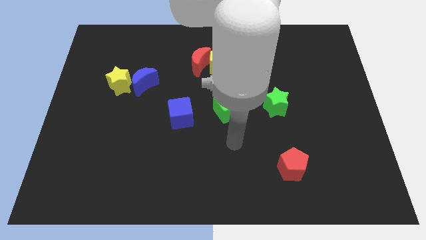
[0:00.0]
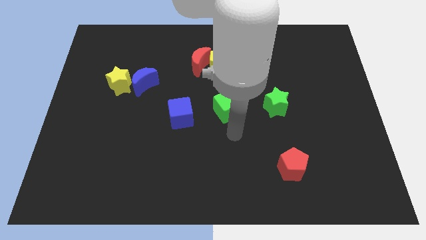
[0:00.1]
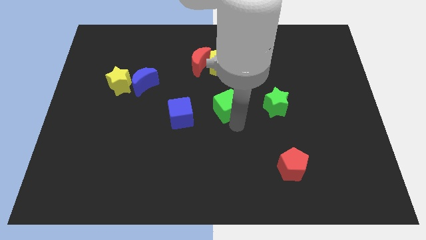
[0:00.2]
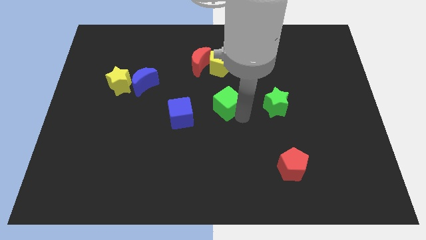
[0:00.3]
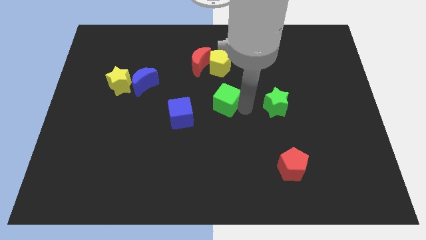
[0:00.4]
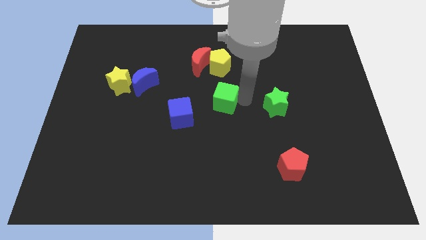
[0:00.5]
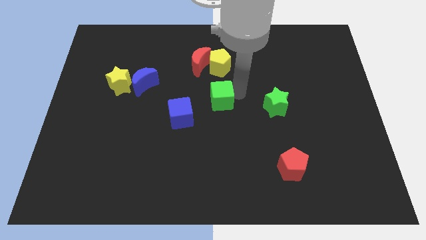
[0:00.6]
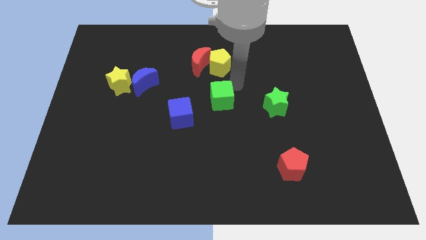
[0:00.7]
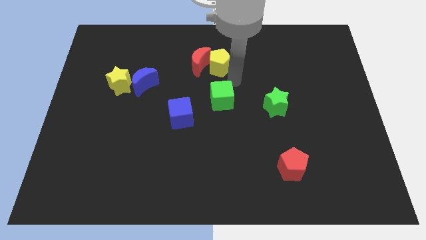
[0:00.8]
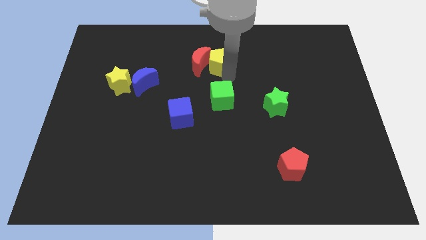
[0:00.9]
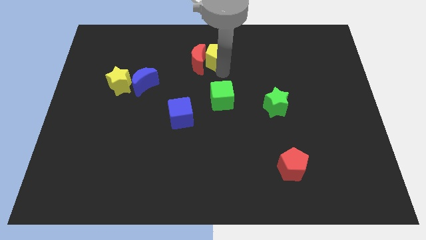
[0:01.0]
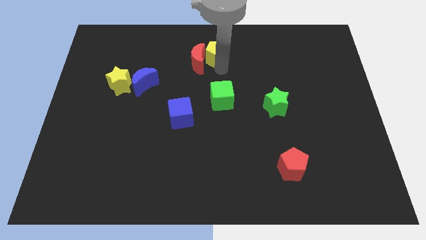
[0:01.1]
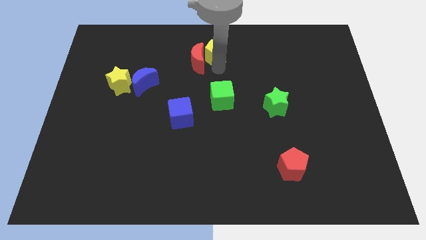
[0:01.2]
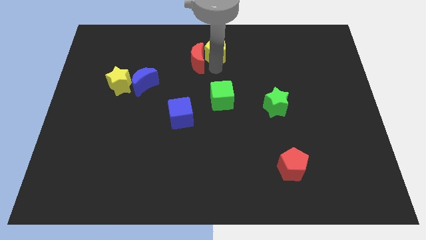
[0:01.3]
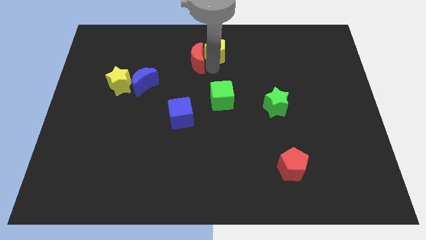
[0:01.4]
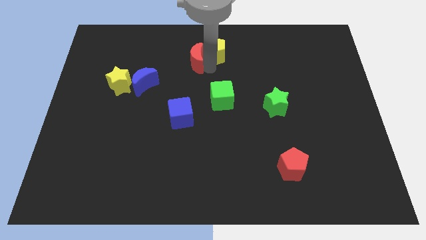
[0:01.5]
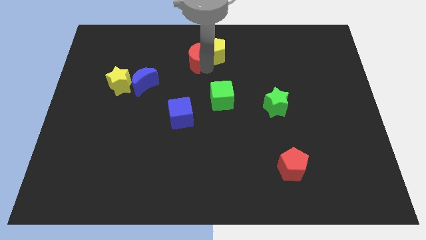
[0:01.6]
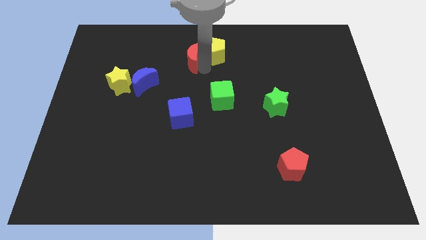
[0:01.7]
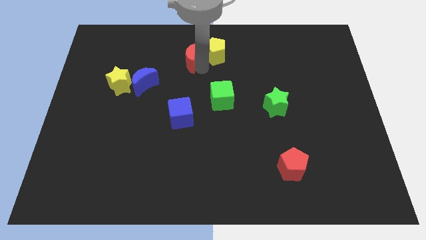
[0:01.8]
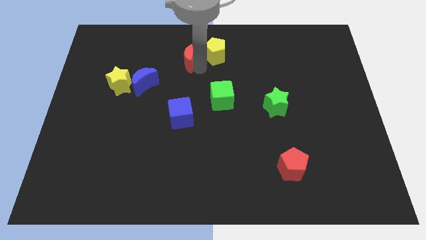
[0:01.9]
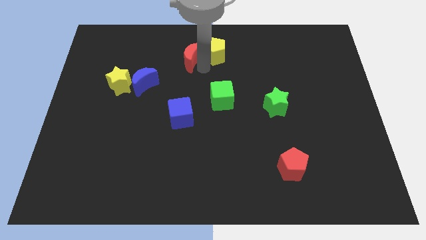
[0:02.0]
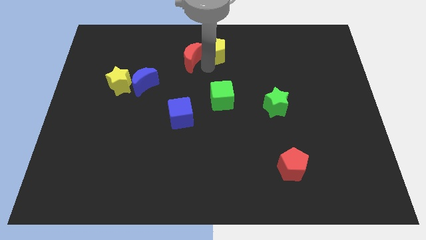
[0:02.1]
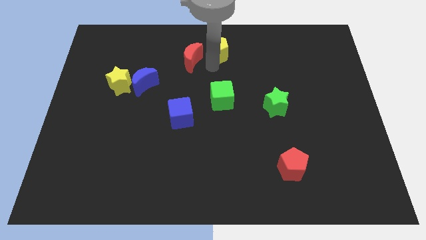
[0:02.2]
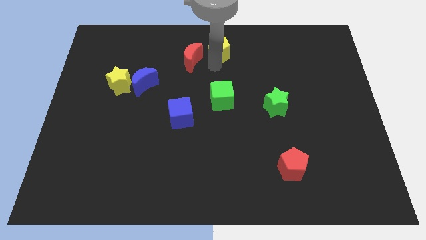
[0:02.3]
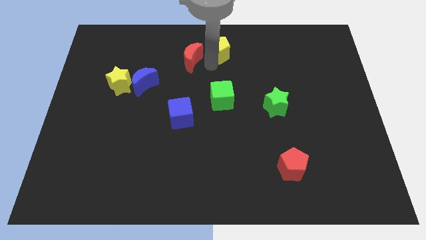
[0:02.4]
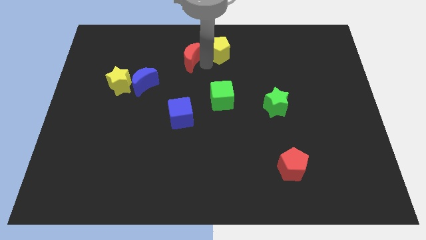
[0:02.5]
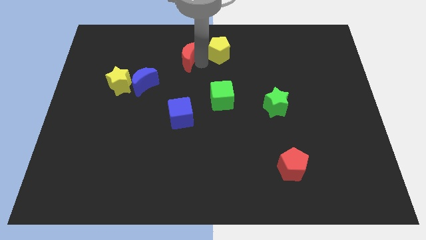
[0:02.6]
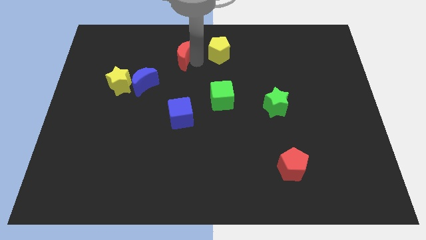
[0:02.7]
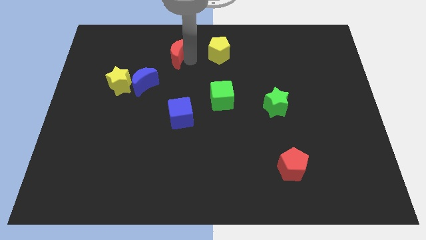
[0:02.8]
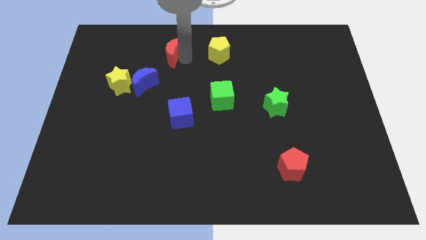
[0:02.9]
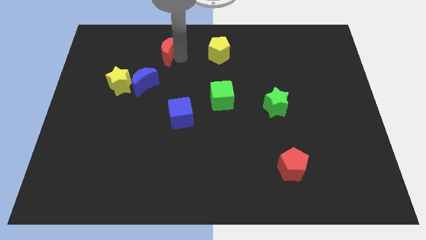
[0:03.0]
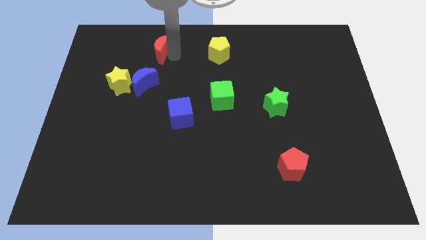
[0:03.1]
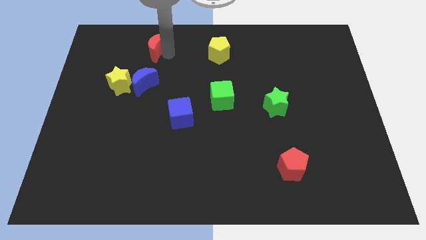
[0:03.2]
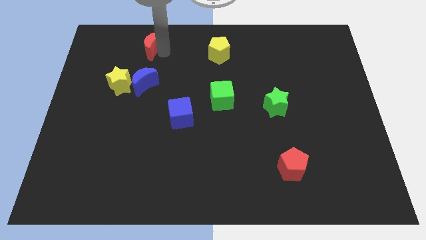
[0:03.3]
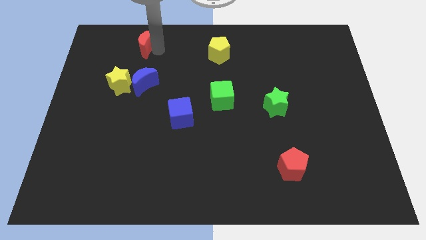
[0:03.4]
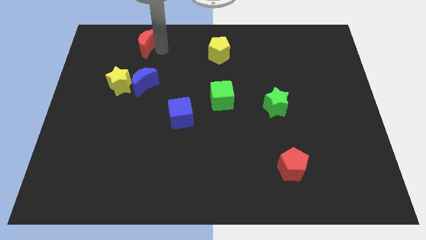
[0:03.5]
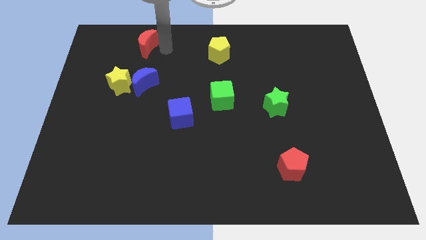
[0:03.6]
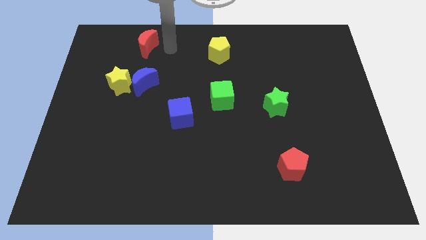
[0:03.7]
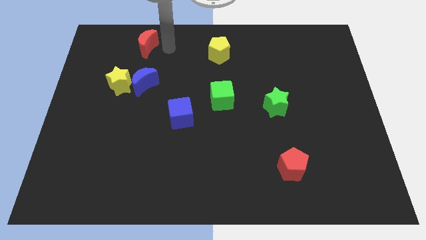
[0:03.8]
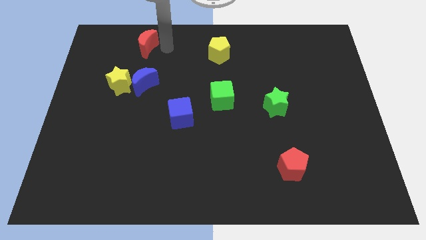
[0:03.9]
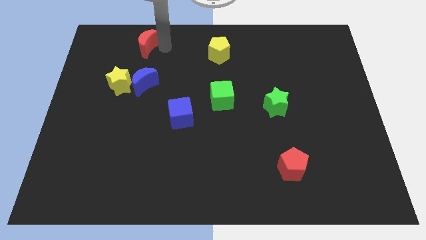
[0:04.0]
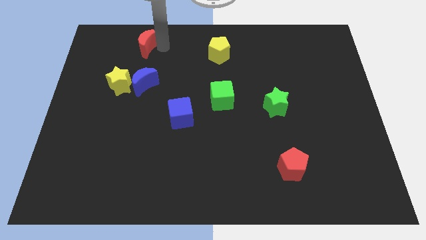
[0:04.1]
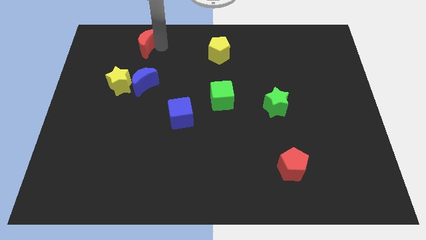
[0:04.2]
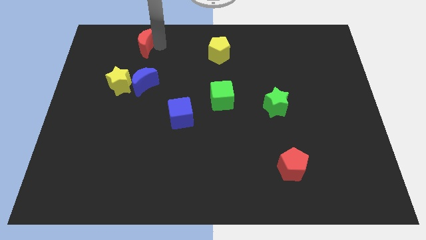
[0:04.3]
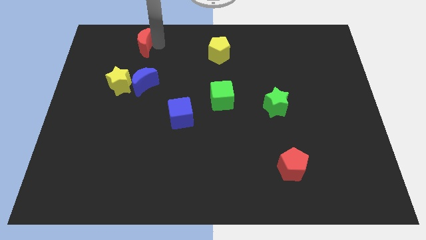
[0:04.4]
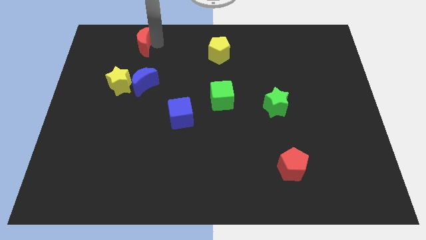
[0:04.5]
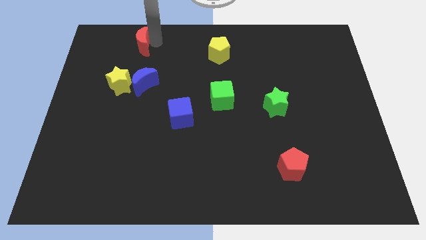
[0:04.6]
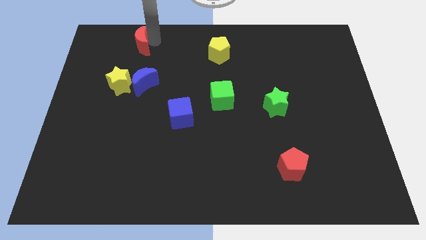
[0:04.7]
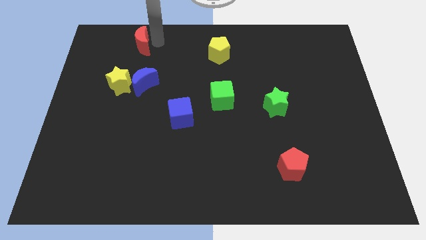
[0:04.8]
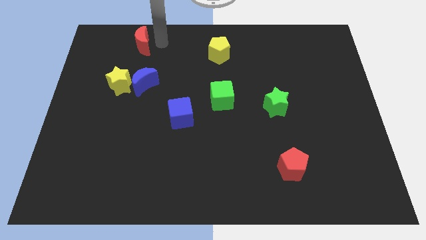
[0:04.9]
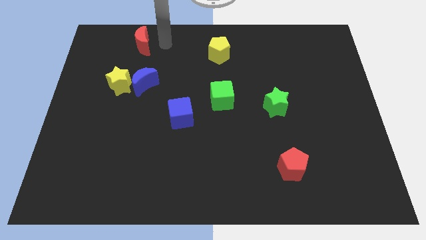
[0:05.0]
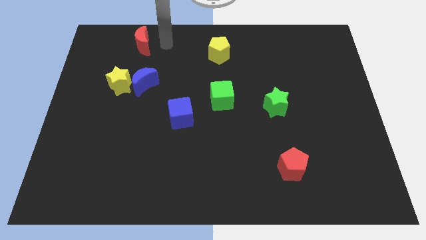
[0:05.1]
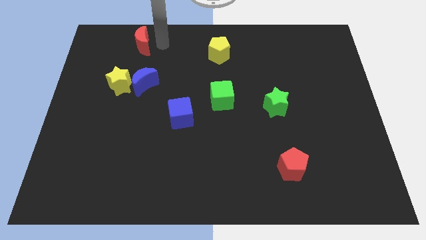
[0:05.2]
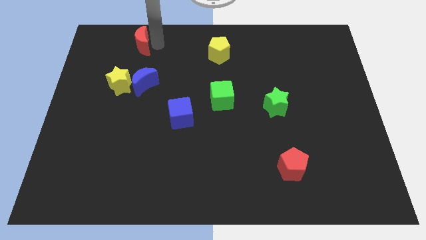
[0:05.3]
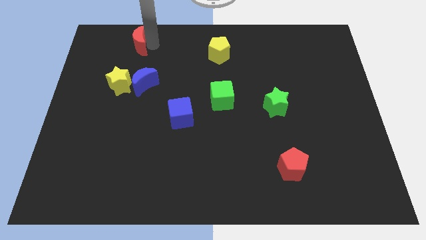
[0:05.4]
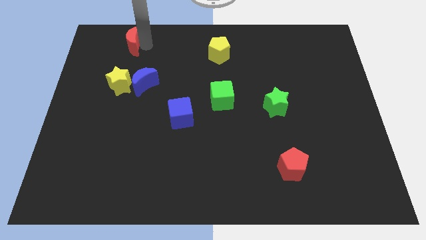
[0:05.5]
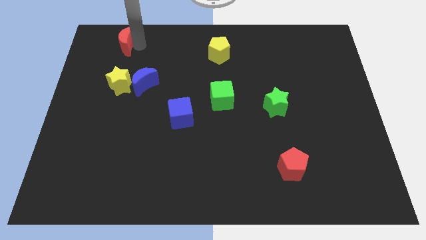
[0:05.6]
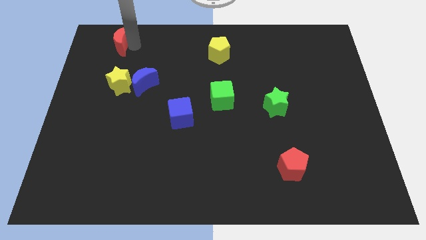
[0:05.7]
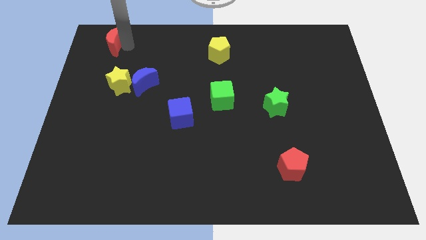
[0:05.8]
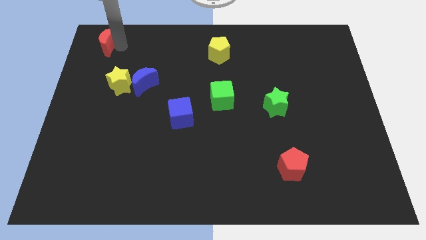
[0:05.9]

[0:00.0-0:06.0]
slide the red moon to the top left

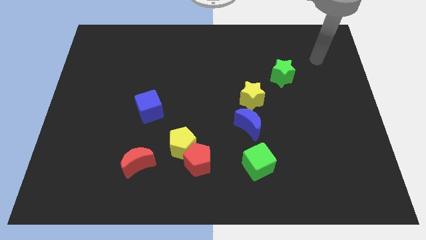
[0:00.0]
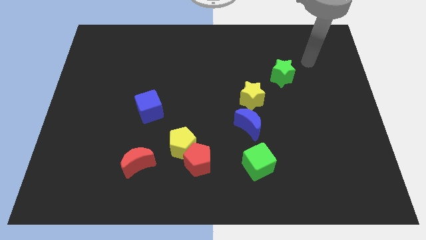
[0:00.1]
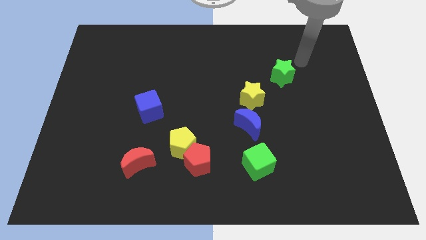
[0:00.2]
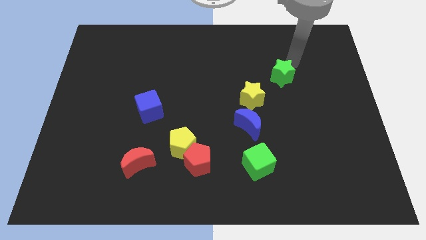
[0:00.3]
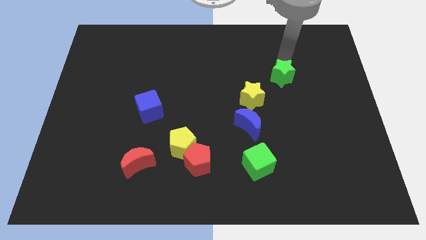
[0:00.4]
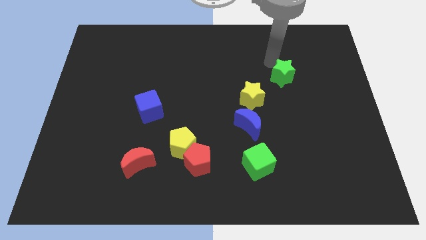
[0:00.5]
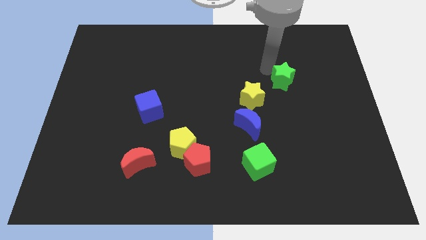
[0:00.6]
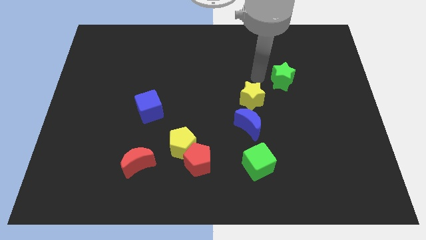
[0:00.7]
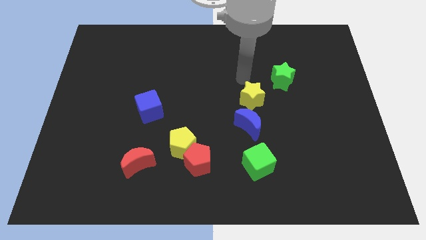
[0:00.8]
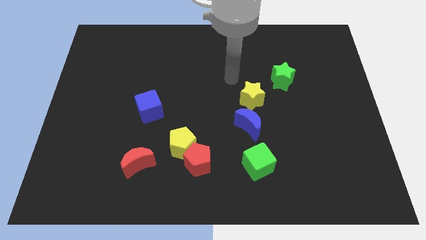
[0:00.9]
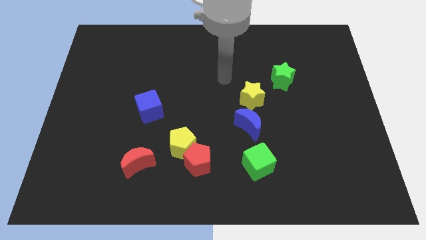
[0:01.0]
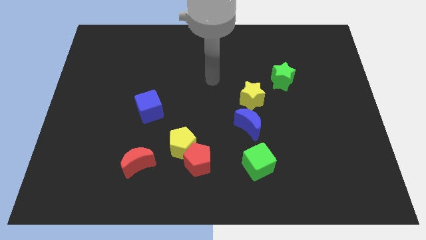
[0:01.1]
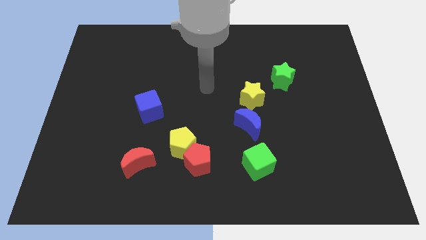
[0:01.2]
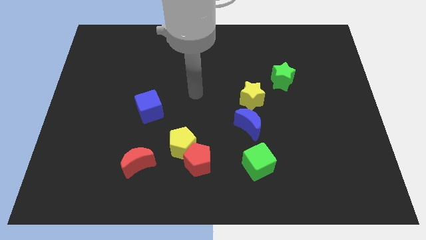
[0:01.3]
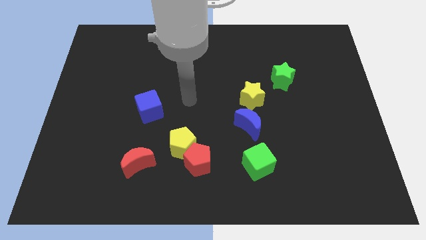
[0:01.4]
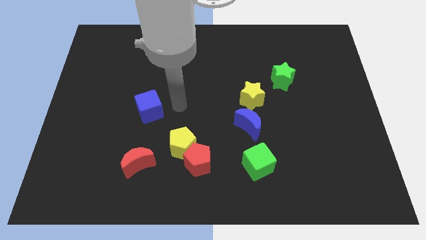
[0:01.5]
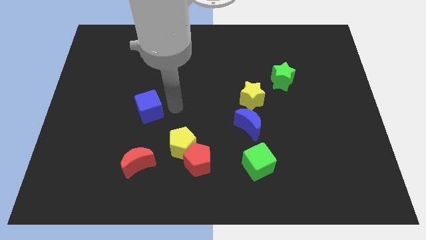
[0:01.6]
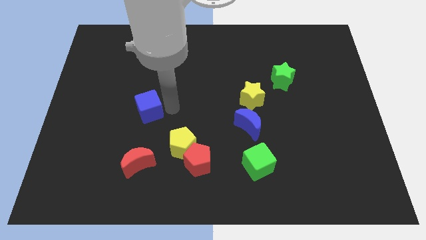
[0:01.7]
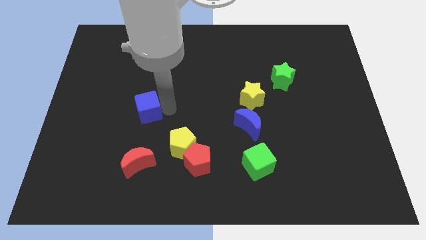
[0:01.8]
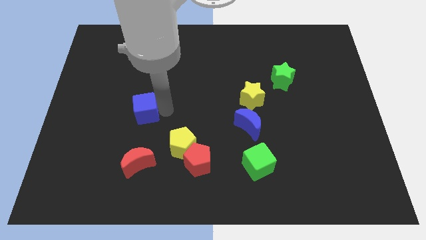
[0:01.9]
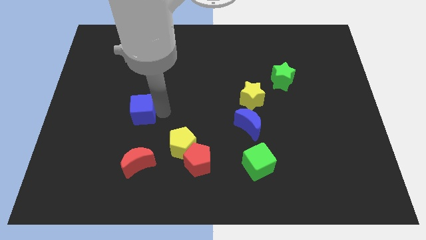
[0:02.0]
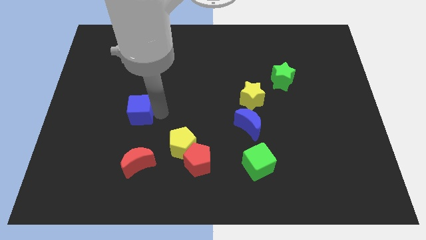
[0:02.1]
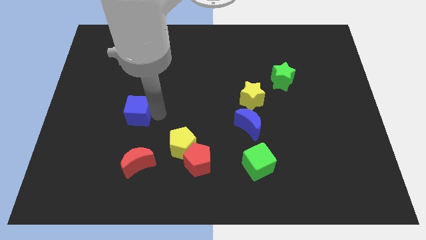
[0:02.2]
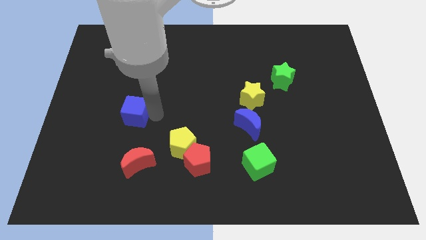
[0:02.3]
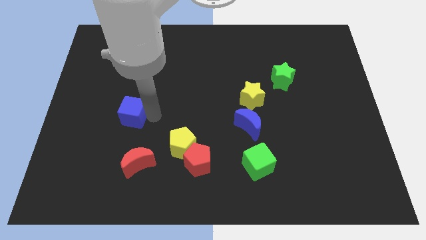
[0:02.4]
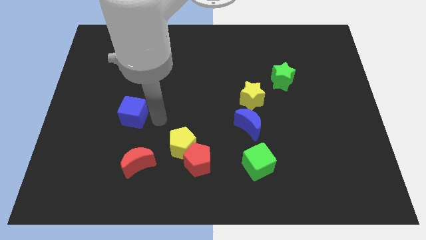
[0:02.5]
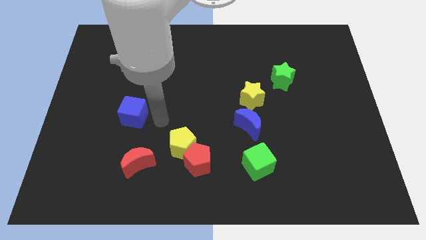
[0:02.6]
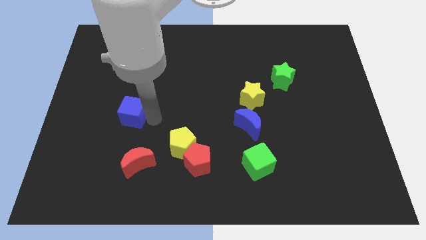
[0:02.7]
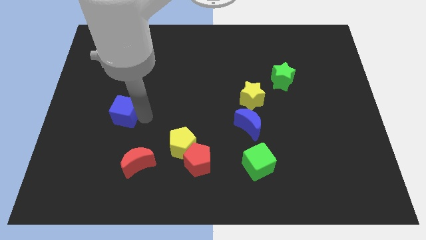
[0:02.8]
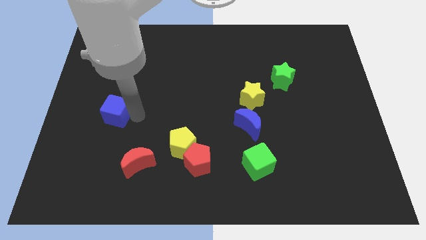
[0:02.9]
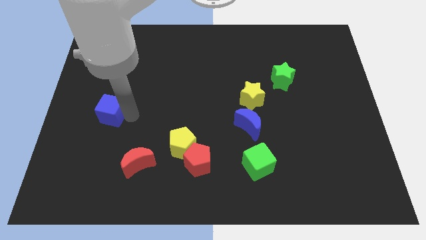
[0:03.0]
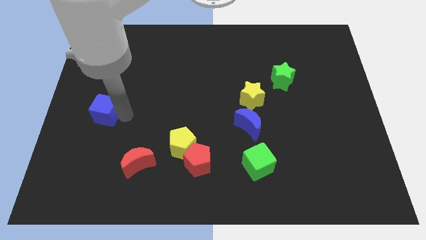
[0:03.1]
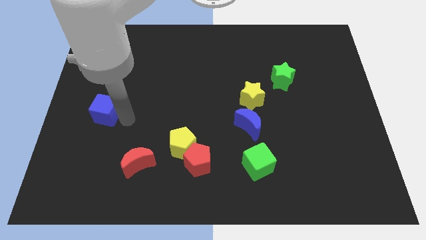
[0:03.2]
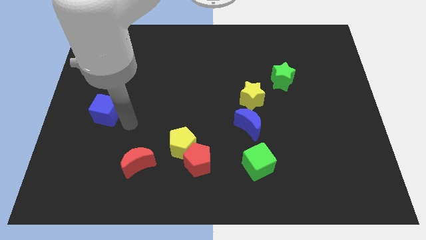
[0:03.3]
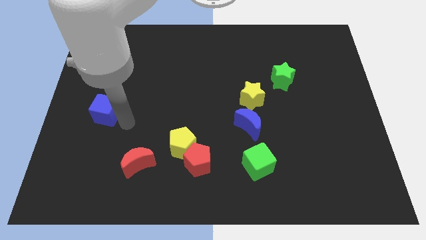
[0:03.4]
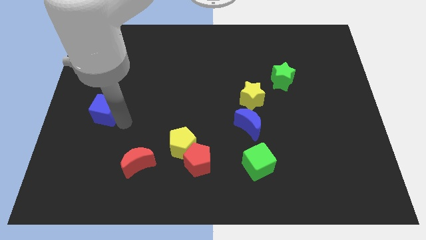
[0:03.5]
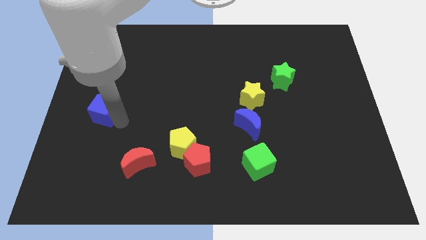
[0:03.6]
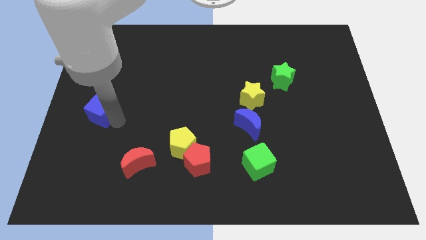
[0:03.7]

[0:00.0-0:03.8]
slide the blue cube to the left side of the board
